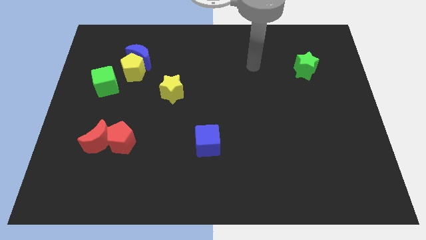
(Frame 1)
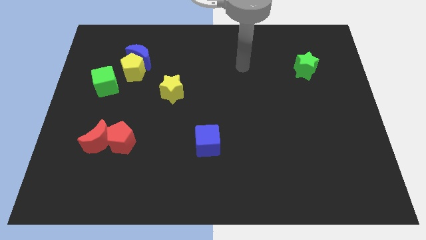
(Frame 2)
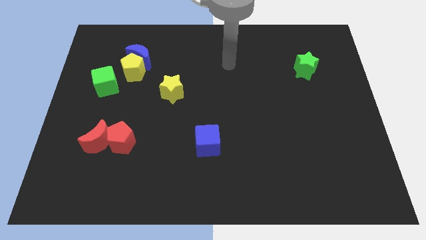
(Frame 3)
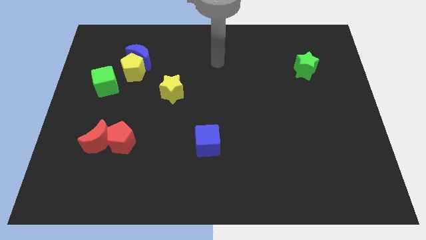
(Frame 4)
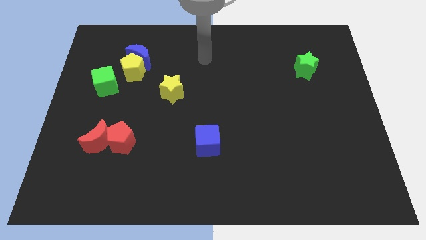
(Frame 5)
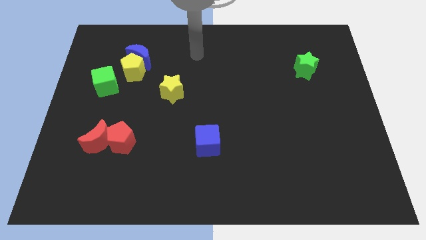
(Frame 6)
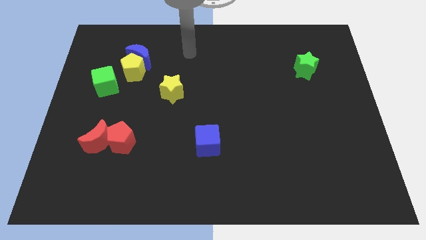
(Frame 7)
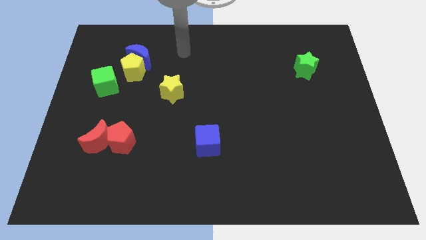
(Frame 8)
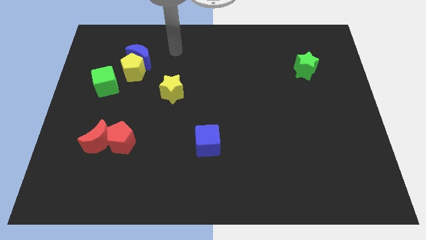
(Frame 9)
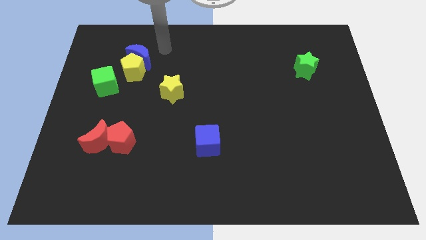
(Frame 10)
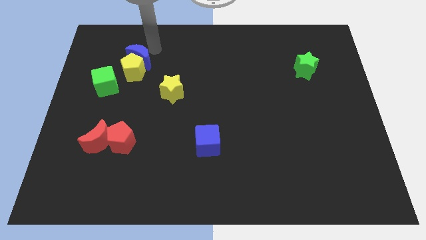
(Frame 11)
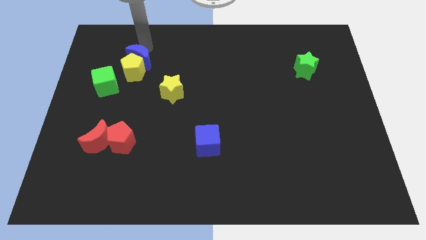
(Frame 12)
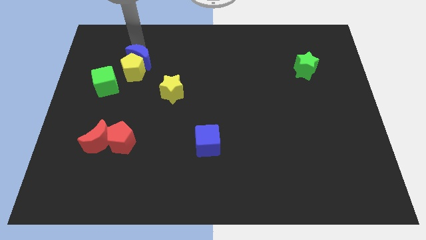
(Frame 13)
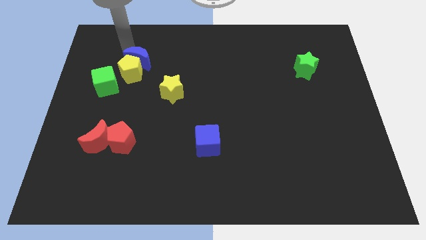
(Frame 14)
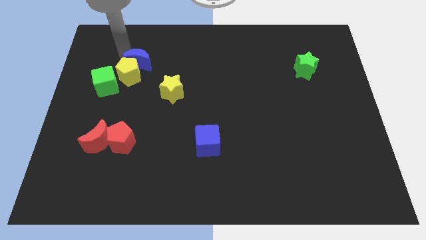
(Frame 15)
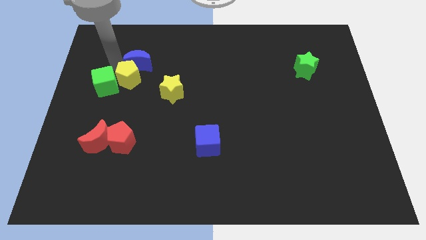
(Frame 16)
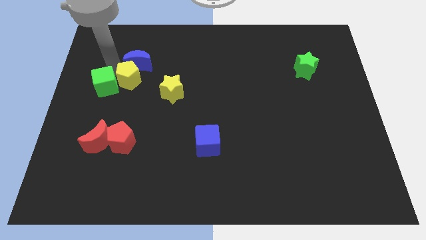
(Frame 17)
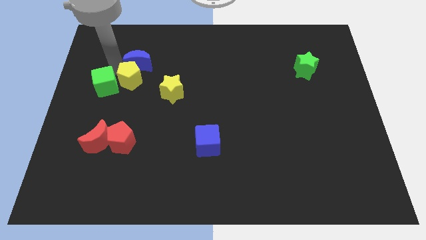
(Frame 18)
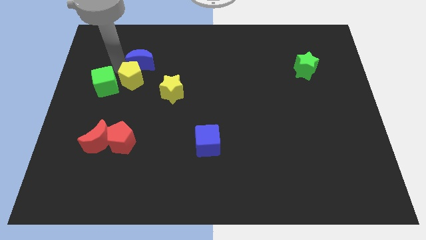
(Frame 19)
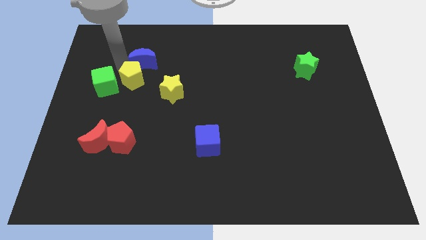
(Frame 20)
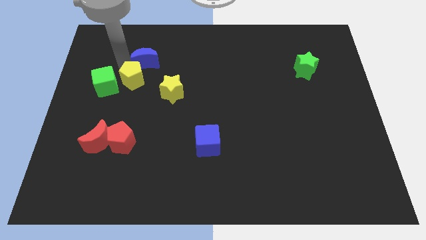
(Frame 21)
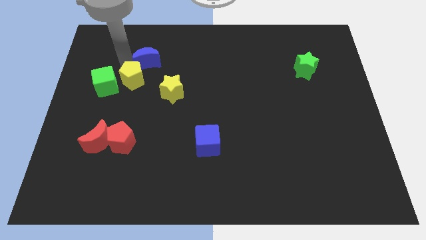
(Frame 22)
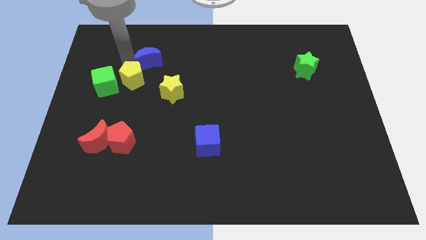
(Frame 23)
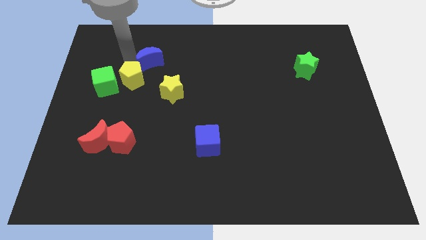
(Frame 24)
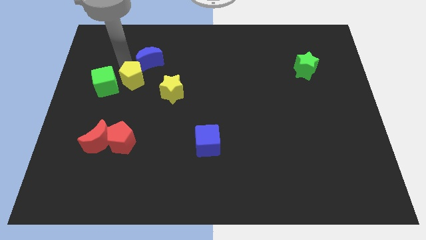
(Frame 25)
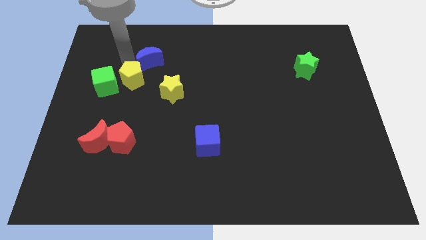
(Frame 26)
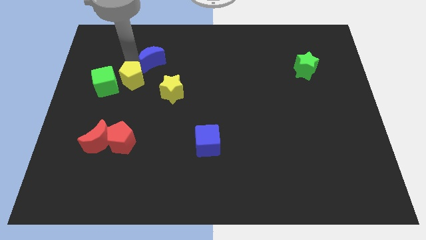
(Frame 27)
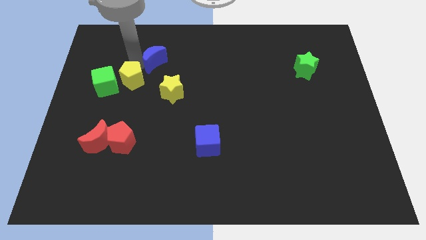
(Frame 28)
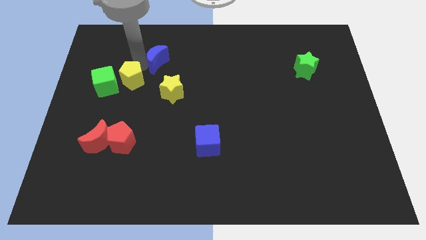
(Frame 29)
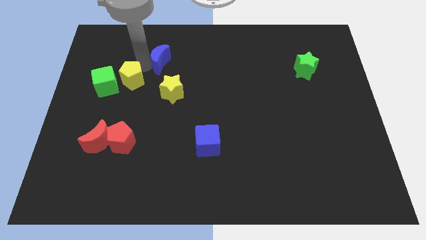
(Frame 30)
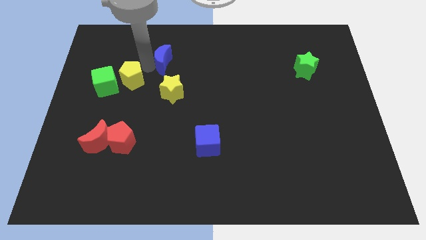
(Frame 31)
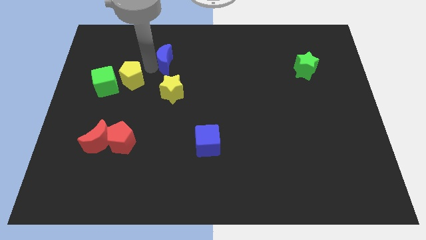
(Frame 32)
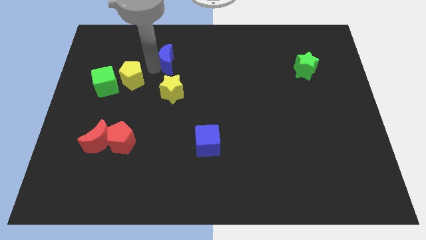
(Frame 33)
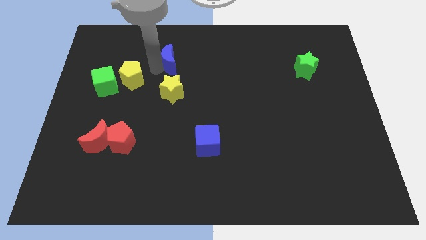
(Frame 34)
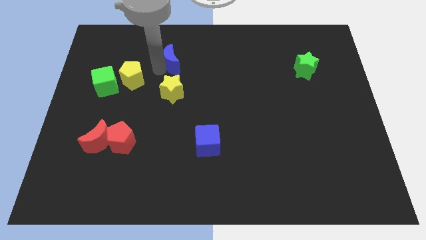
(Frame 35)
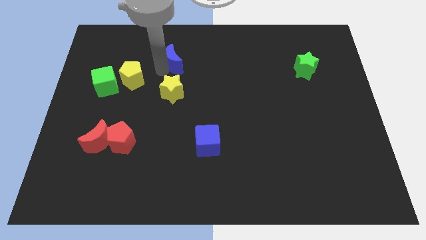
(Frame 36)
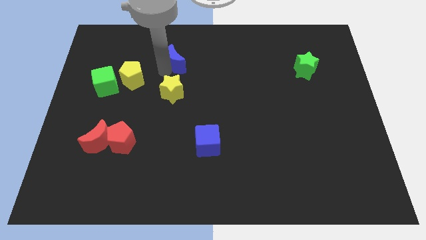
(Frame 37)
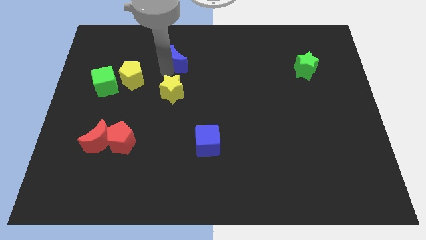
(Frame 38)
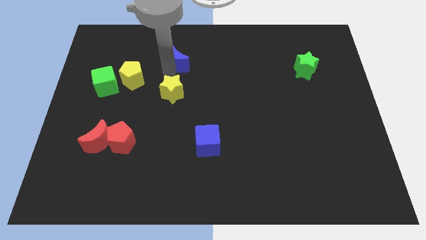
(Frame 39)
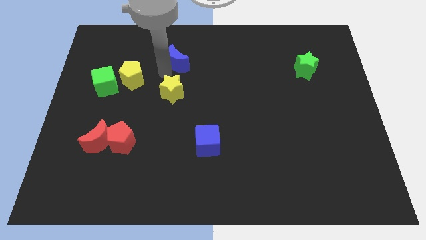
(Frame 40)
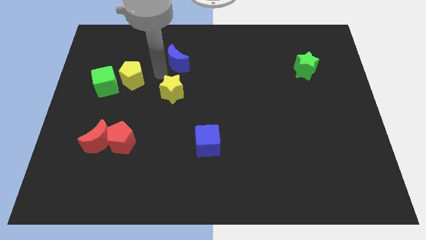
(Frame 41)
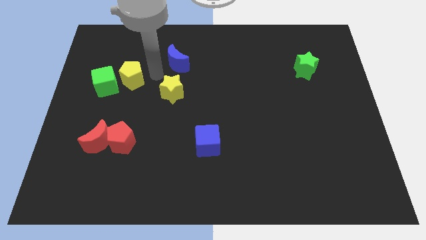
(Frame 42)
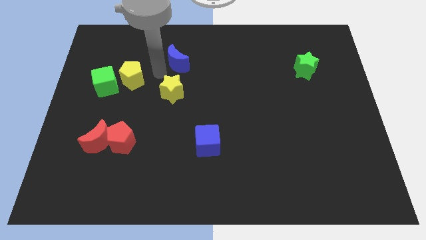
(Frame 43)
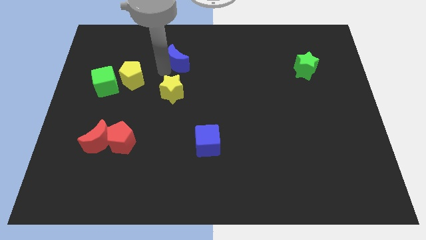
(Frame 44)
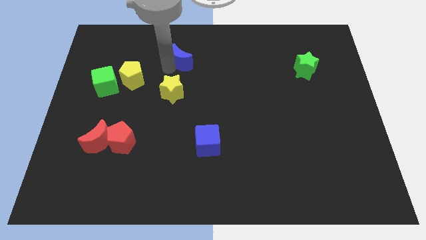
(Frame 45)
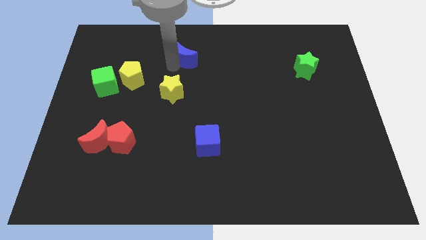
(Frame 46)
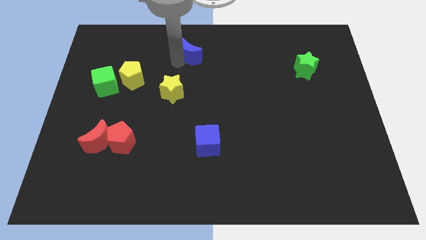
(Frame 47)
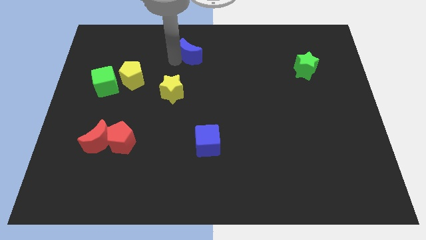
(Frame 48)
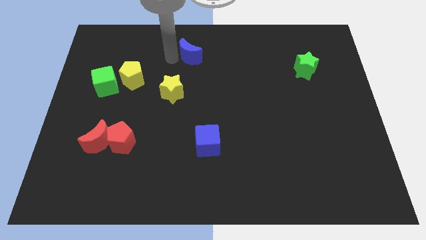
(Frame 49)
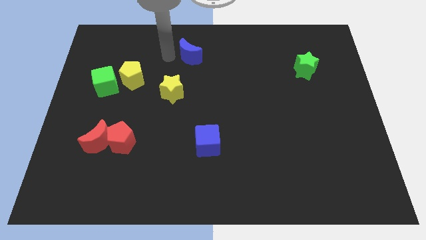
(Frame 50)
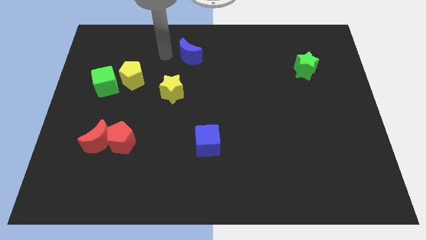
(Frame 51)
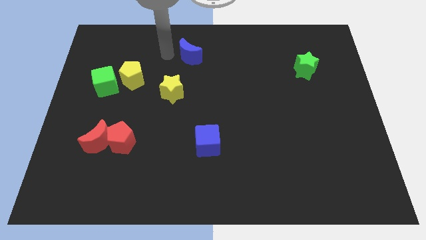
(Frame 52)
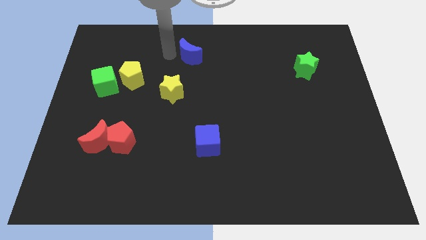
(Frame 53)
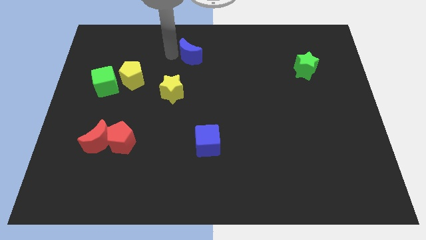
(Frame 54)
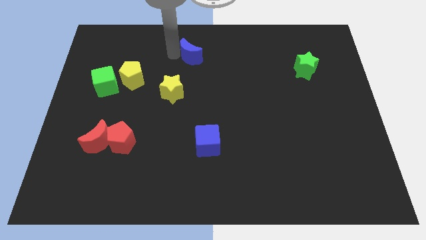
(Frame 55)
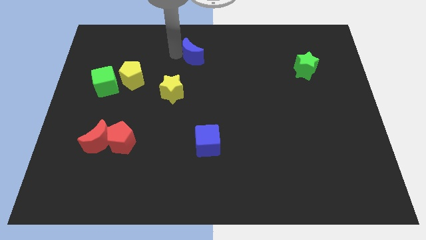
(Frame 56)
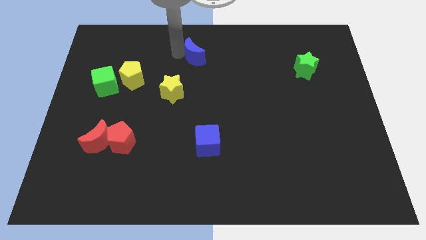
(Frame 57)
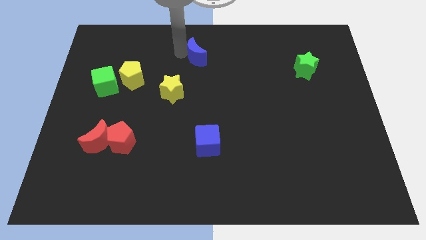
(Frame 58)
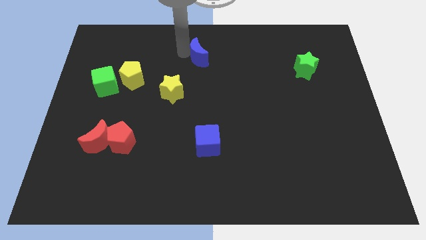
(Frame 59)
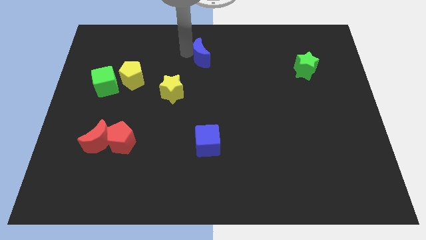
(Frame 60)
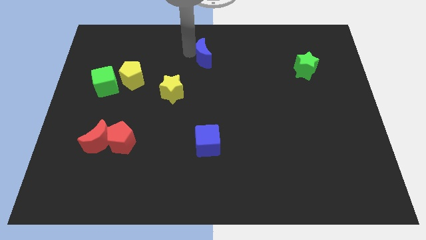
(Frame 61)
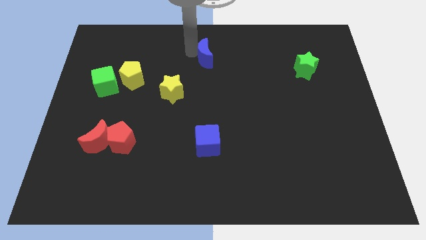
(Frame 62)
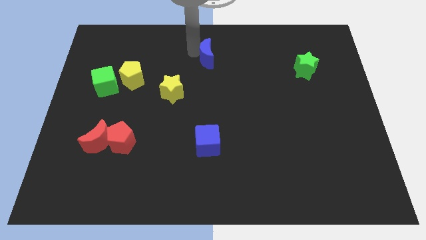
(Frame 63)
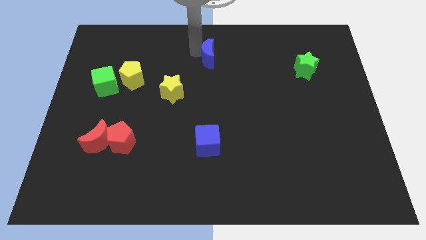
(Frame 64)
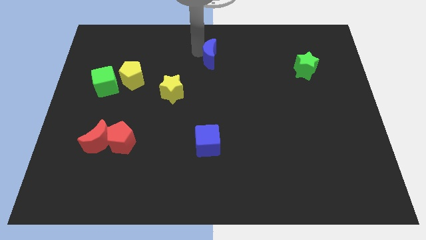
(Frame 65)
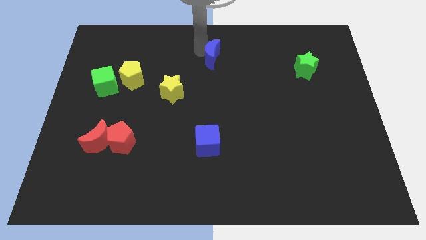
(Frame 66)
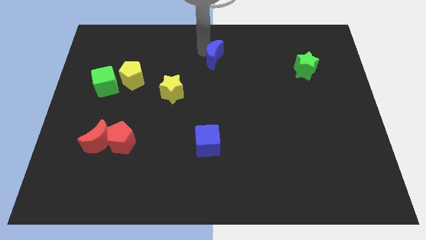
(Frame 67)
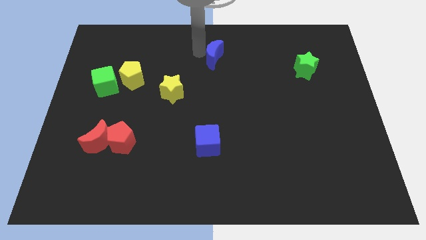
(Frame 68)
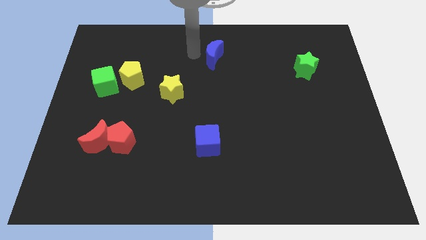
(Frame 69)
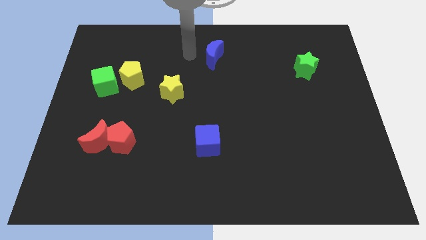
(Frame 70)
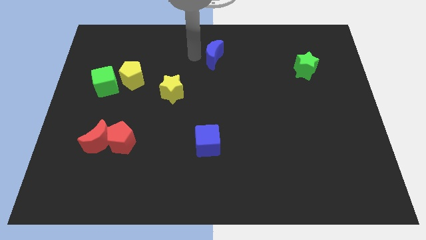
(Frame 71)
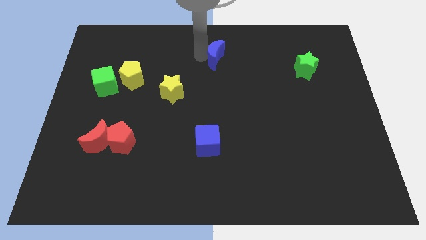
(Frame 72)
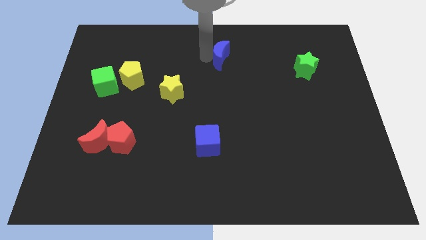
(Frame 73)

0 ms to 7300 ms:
slide the blue moon to the right

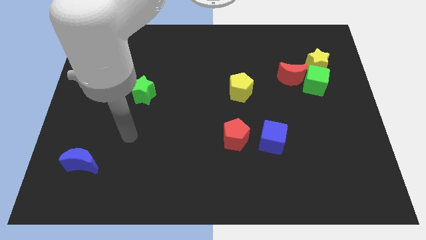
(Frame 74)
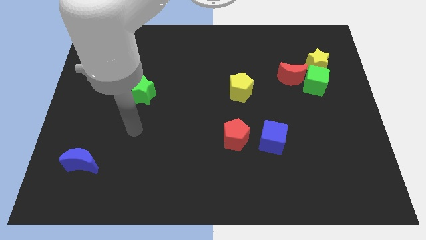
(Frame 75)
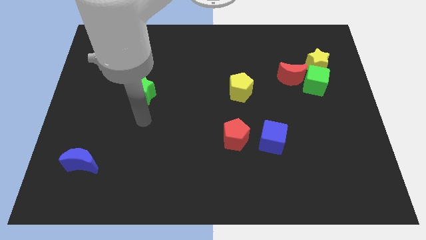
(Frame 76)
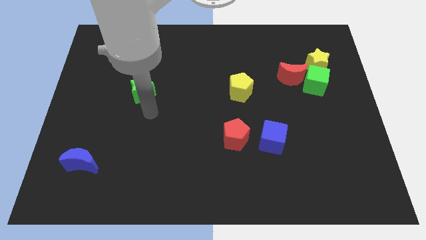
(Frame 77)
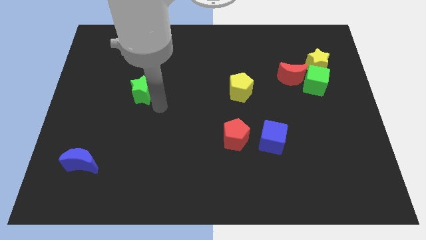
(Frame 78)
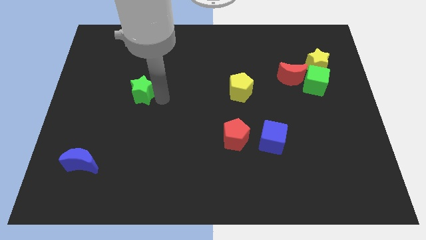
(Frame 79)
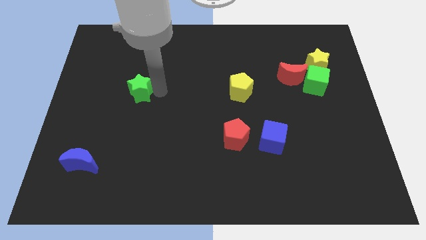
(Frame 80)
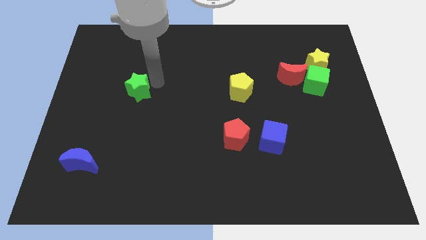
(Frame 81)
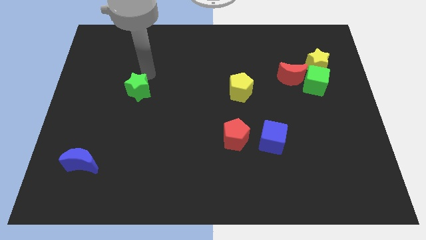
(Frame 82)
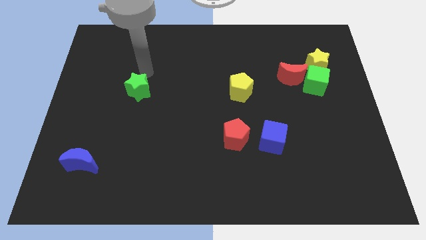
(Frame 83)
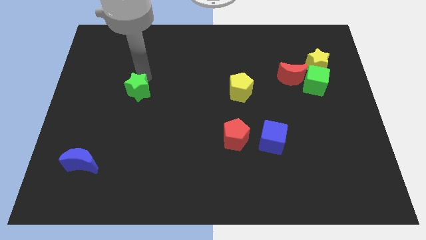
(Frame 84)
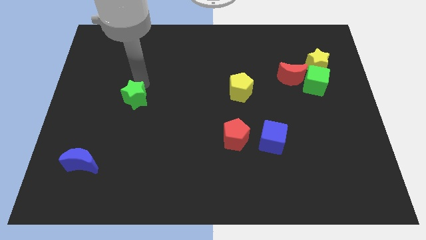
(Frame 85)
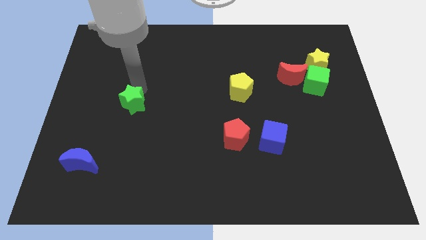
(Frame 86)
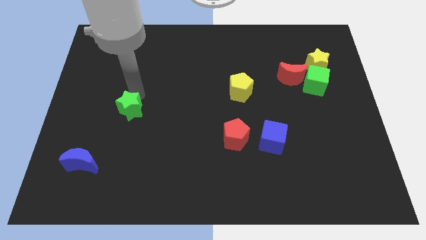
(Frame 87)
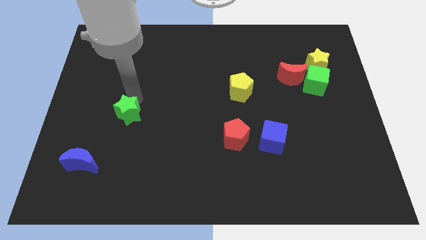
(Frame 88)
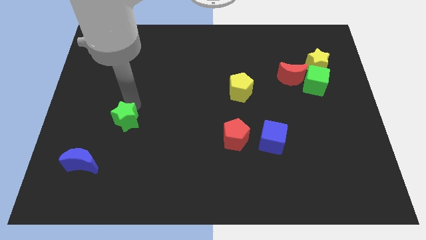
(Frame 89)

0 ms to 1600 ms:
slightly push the green star downwards
